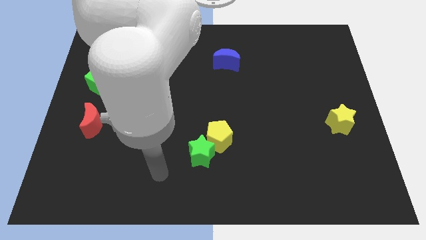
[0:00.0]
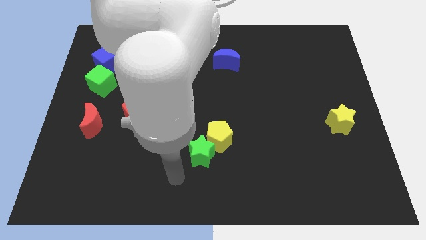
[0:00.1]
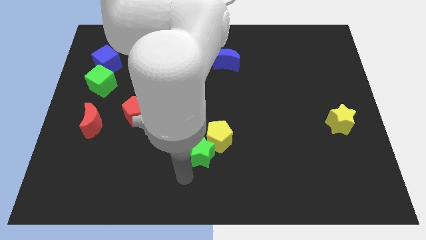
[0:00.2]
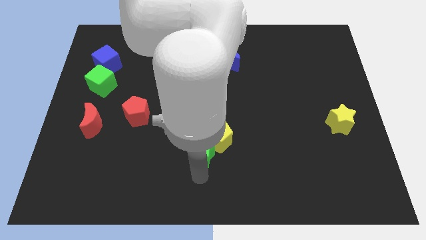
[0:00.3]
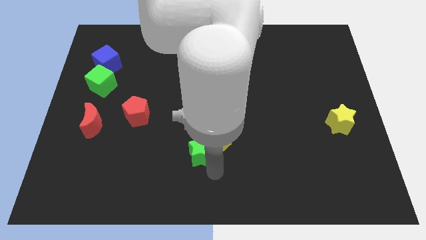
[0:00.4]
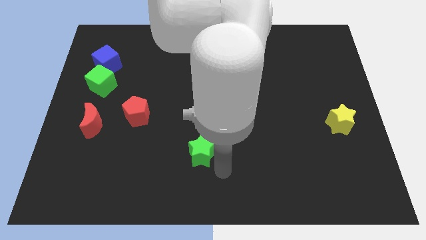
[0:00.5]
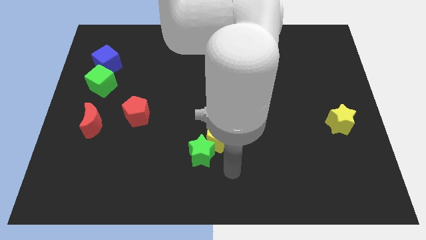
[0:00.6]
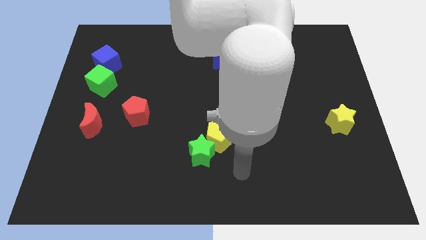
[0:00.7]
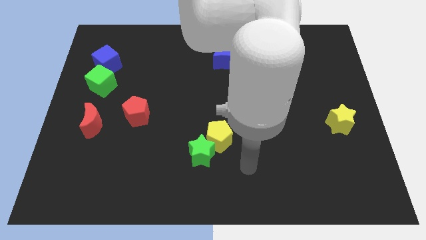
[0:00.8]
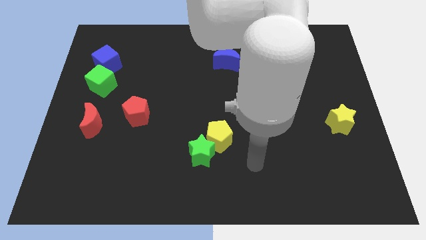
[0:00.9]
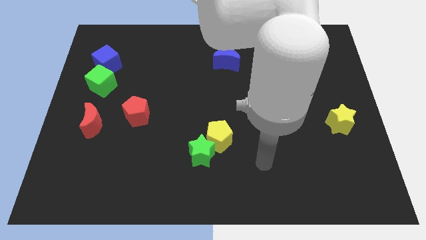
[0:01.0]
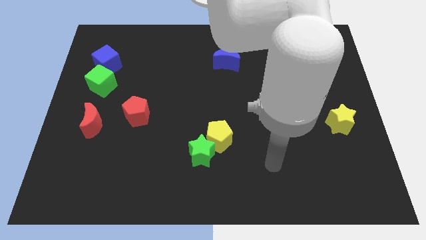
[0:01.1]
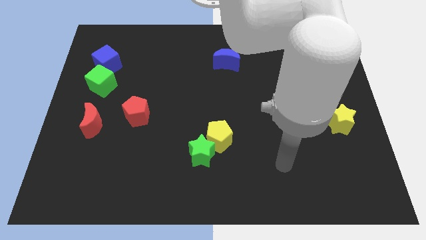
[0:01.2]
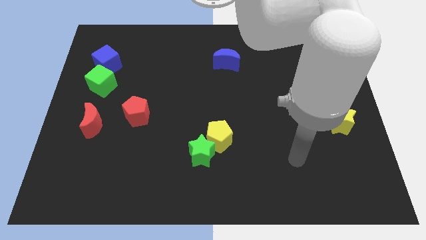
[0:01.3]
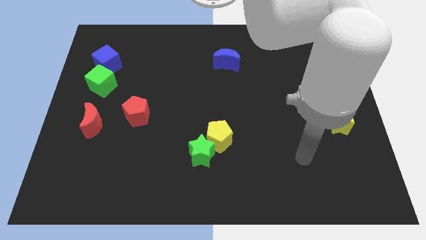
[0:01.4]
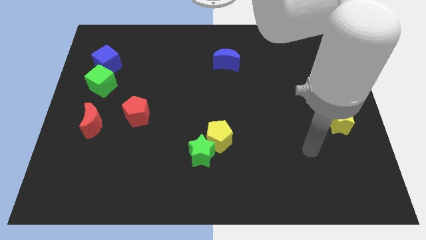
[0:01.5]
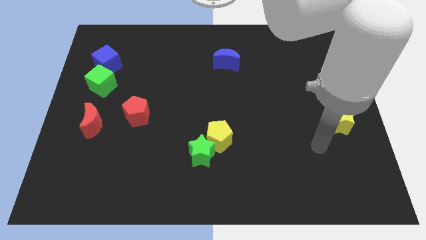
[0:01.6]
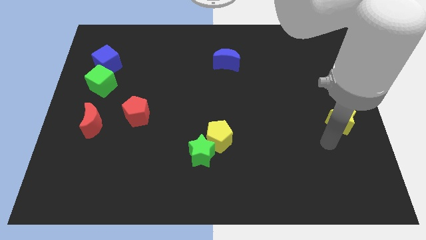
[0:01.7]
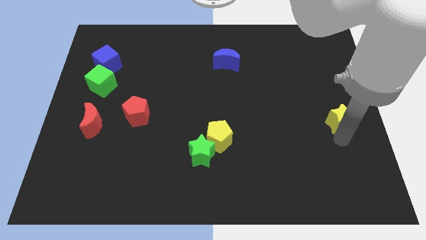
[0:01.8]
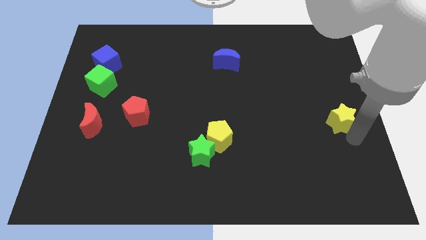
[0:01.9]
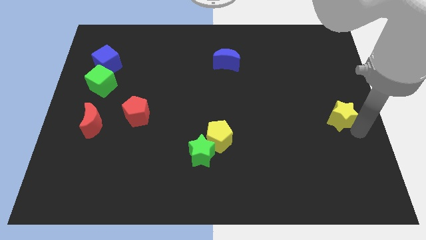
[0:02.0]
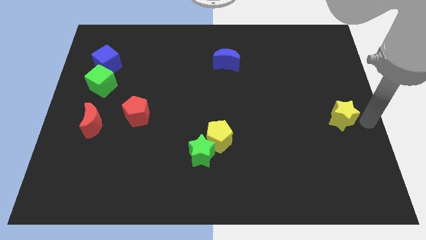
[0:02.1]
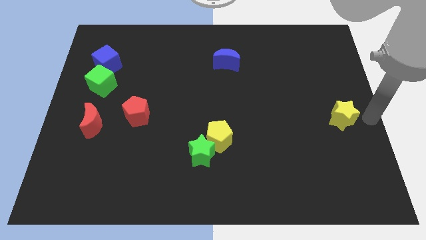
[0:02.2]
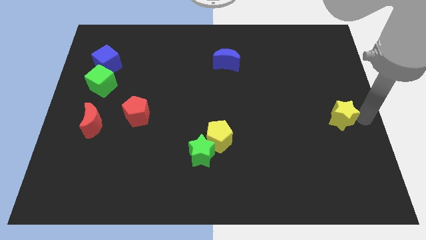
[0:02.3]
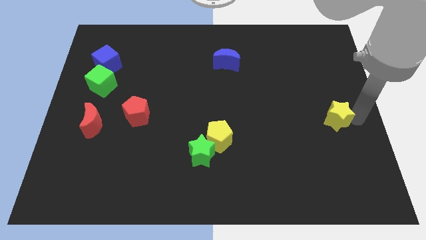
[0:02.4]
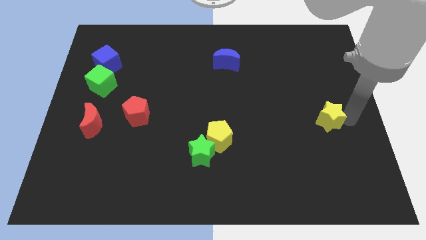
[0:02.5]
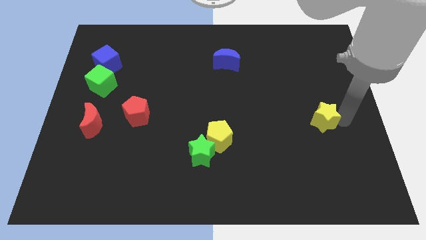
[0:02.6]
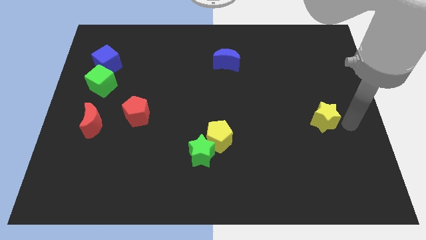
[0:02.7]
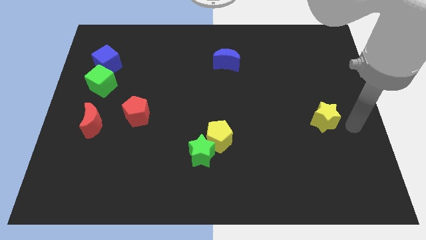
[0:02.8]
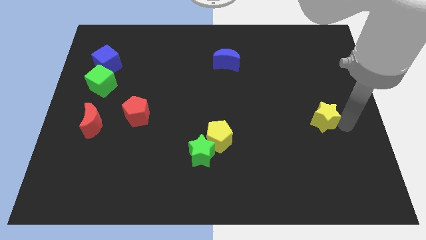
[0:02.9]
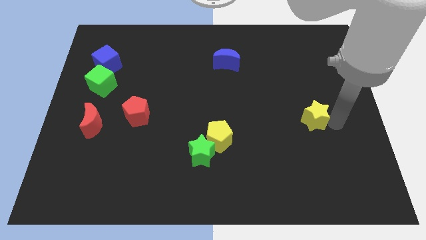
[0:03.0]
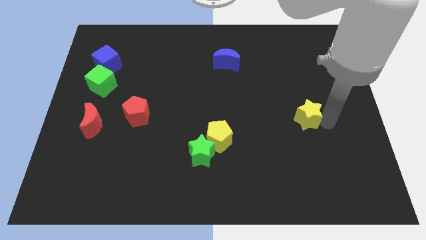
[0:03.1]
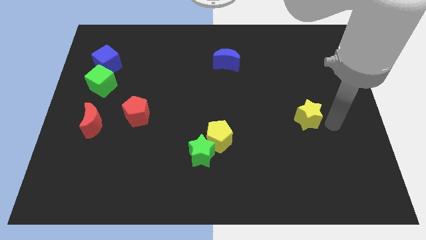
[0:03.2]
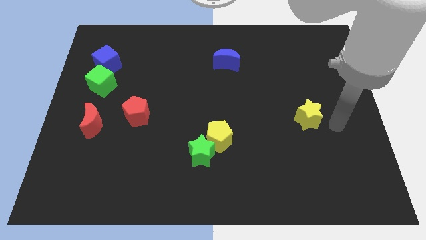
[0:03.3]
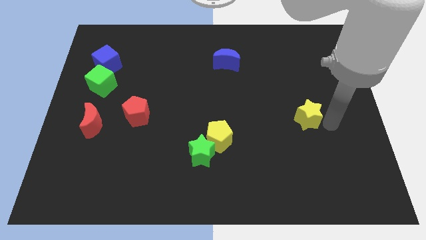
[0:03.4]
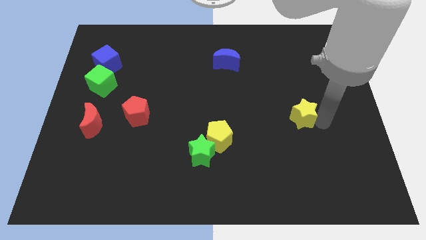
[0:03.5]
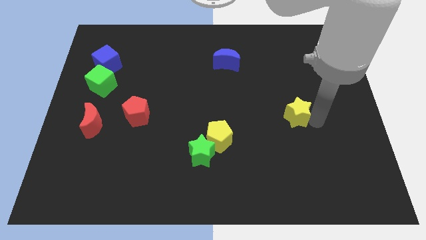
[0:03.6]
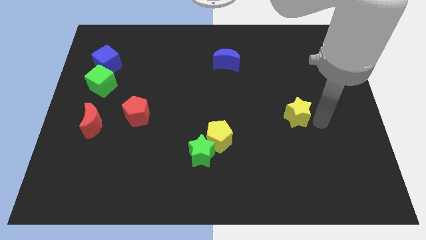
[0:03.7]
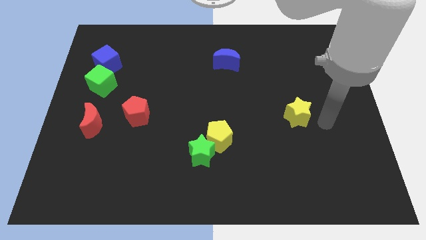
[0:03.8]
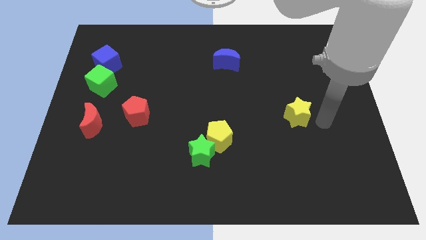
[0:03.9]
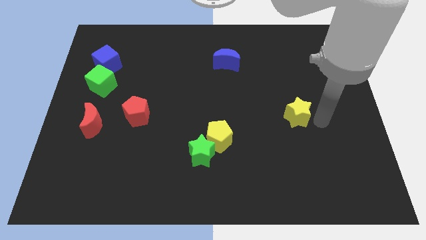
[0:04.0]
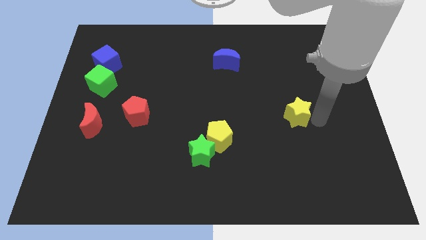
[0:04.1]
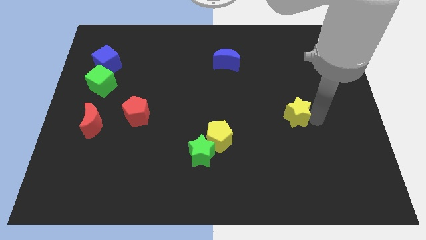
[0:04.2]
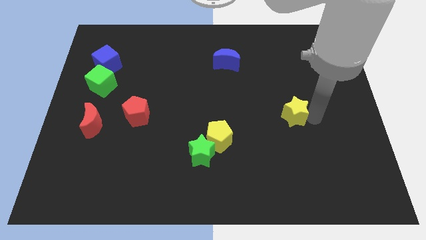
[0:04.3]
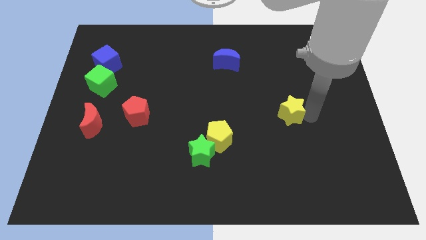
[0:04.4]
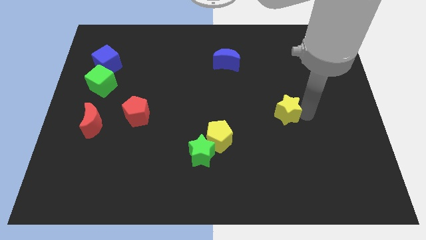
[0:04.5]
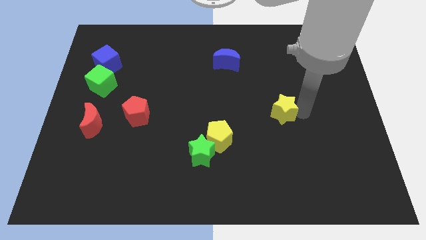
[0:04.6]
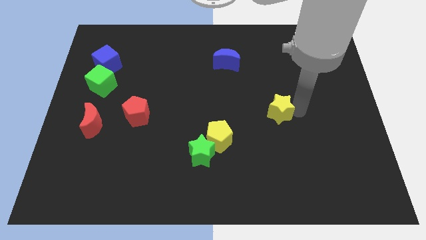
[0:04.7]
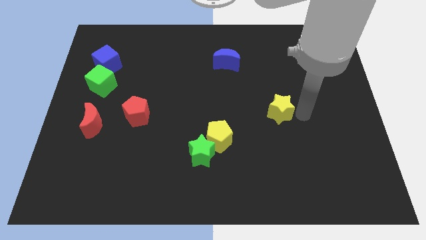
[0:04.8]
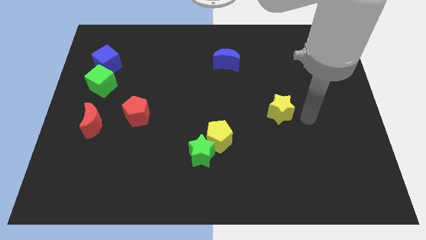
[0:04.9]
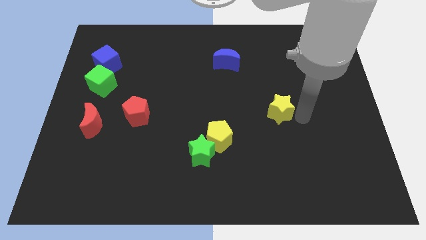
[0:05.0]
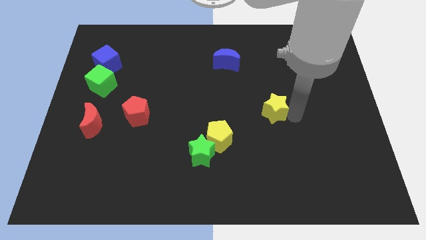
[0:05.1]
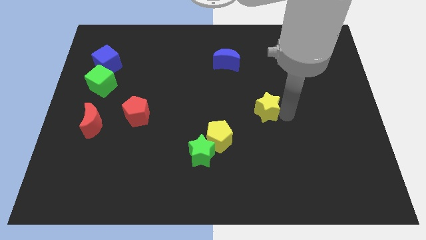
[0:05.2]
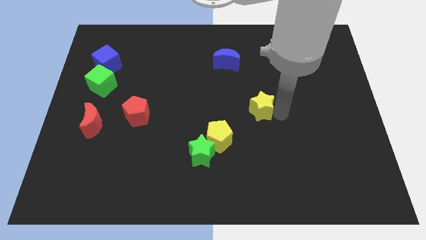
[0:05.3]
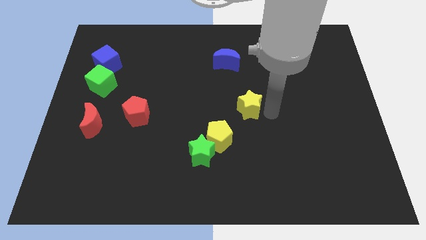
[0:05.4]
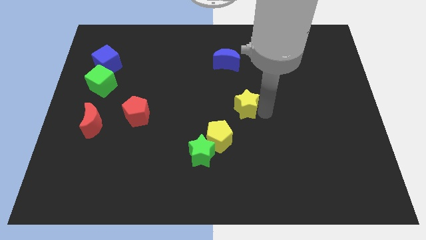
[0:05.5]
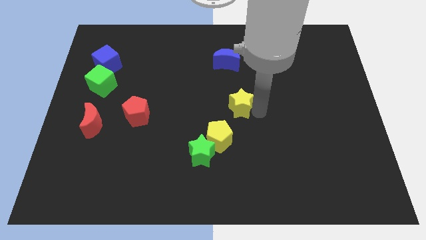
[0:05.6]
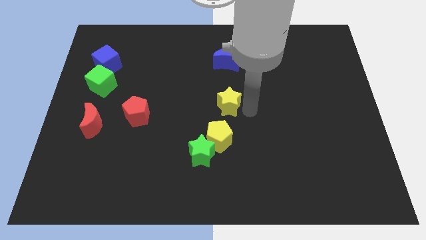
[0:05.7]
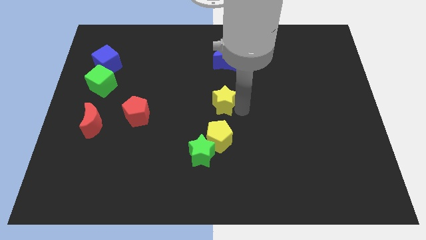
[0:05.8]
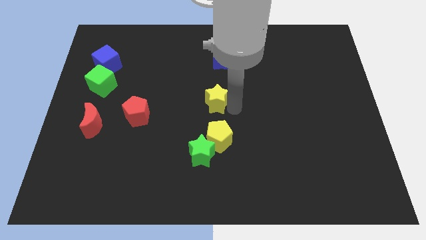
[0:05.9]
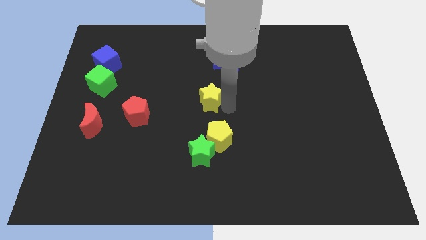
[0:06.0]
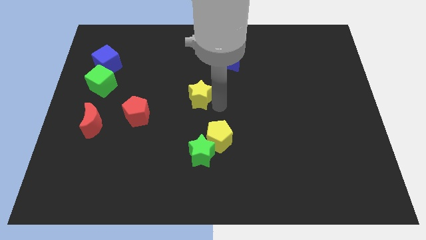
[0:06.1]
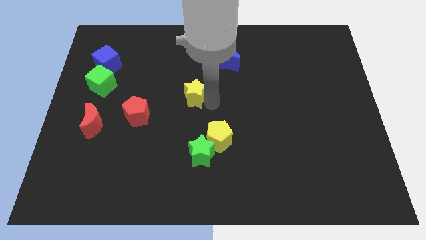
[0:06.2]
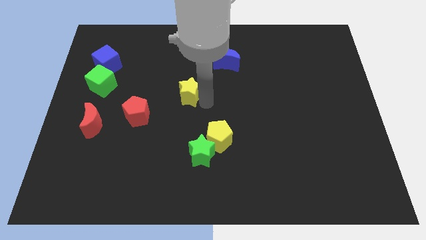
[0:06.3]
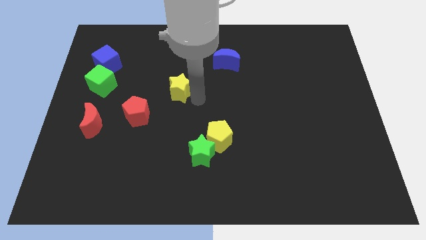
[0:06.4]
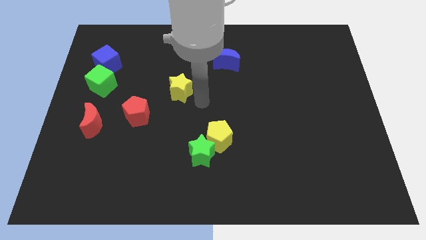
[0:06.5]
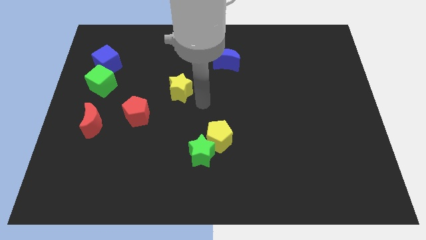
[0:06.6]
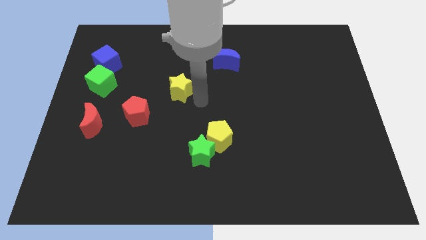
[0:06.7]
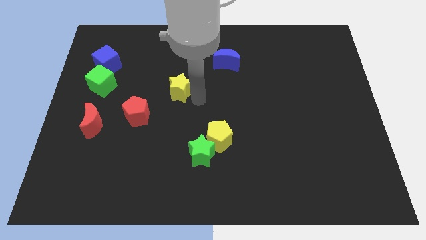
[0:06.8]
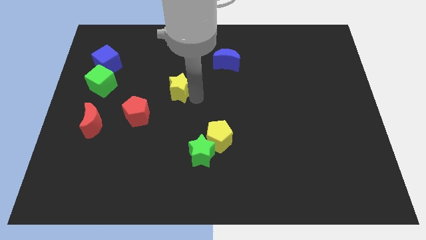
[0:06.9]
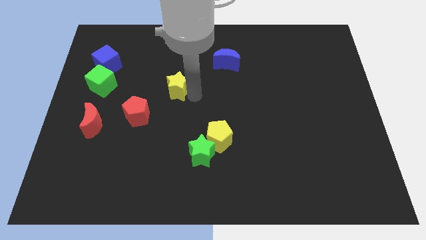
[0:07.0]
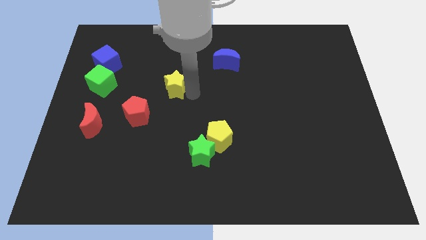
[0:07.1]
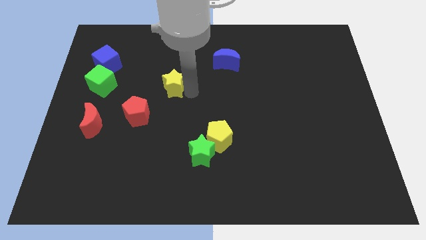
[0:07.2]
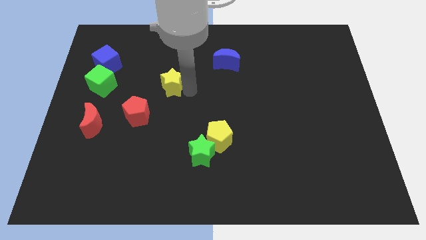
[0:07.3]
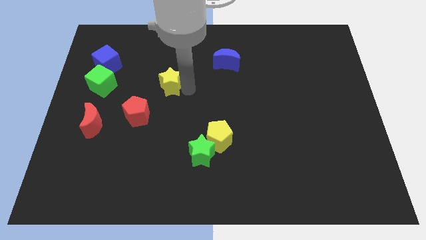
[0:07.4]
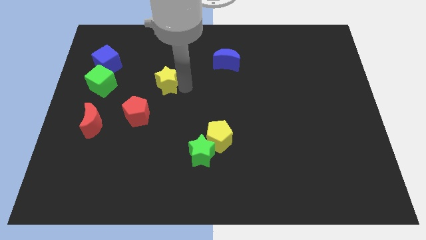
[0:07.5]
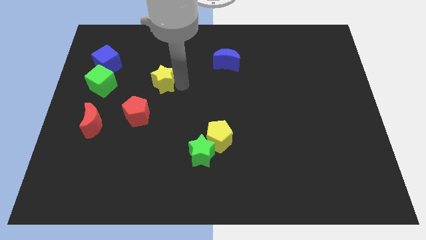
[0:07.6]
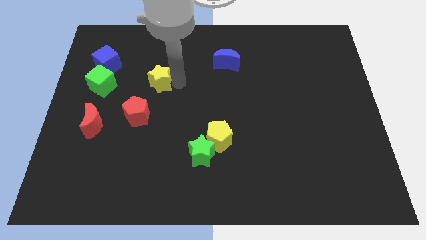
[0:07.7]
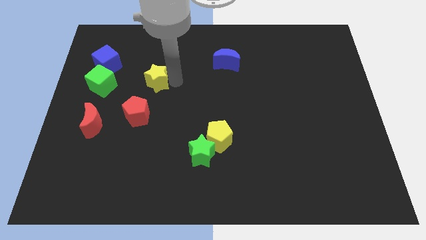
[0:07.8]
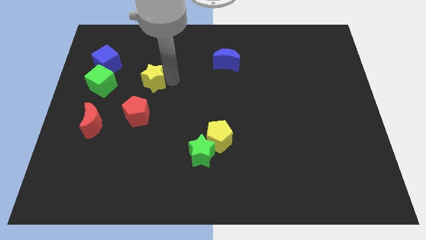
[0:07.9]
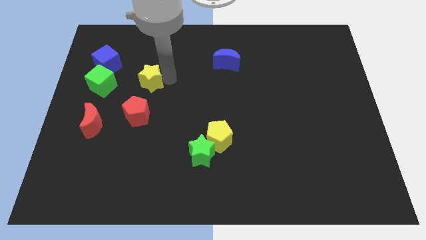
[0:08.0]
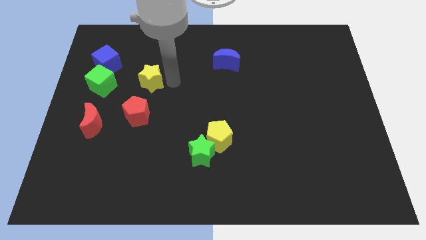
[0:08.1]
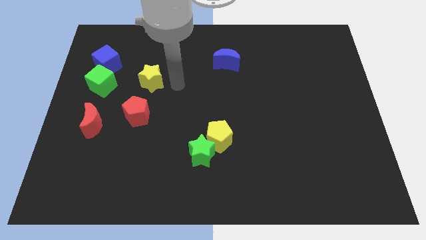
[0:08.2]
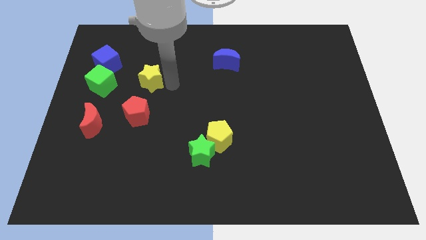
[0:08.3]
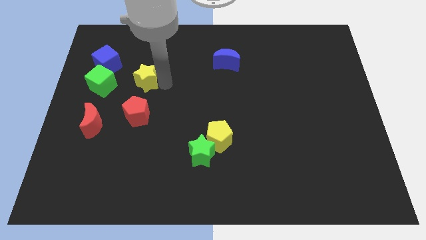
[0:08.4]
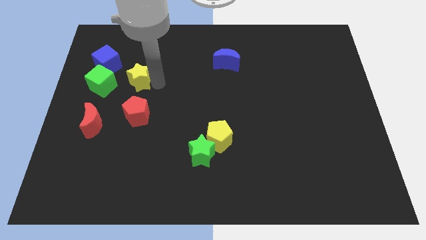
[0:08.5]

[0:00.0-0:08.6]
slide the yellow star diagonally down and to the right of the blue cube
